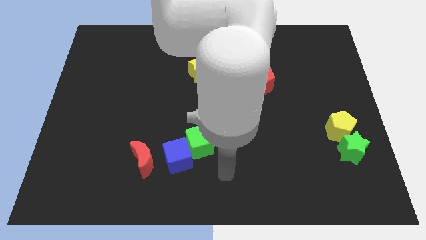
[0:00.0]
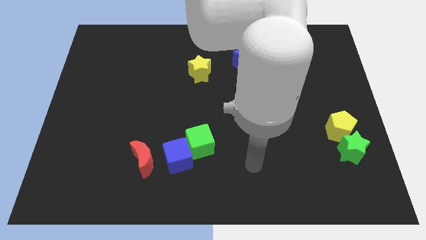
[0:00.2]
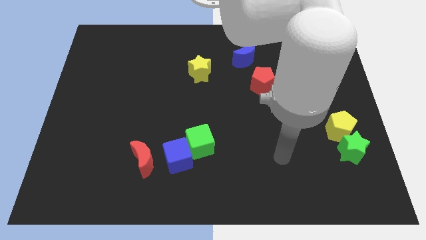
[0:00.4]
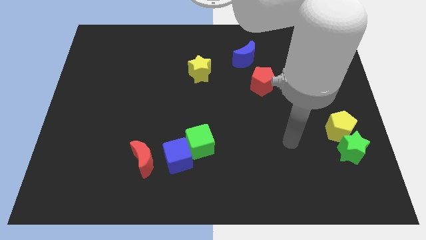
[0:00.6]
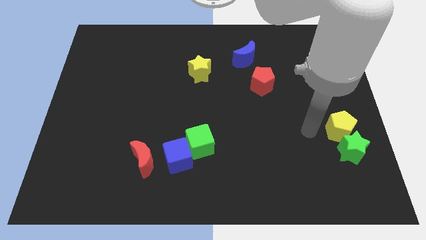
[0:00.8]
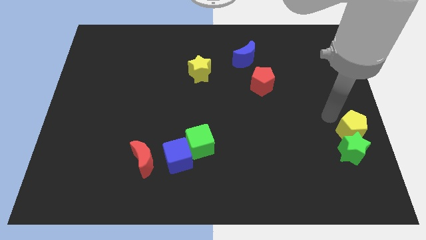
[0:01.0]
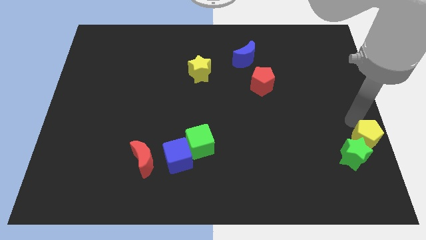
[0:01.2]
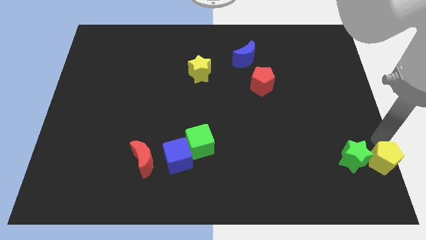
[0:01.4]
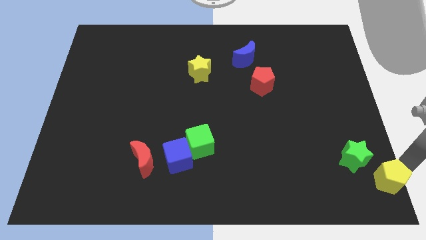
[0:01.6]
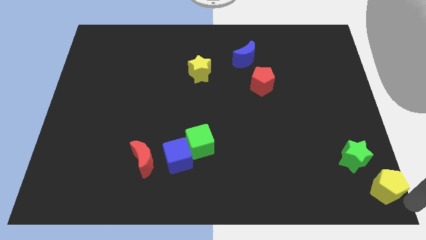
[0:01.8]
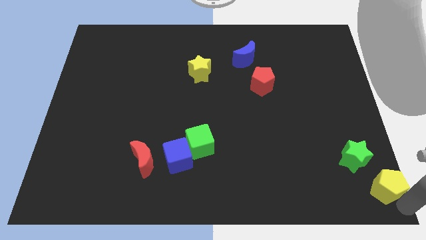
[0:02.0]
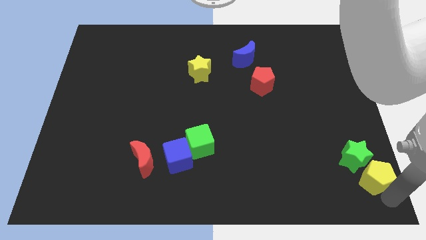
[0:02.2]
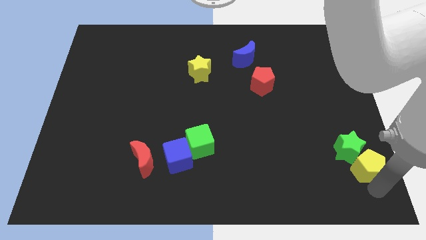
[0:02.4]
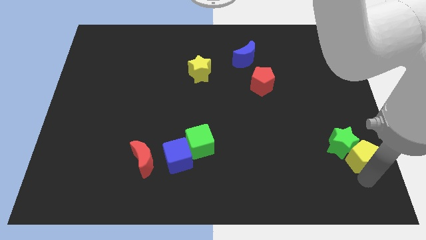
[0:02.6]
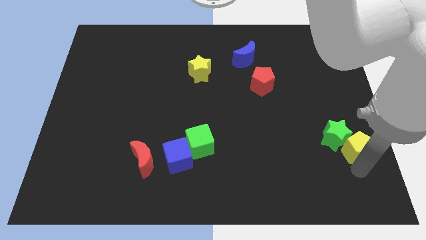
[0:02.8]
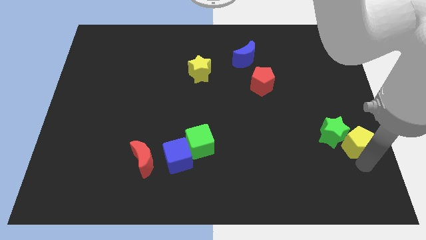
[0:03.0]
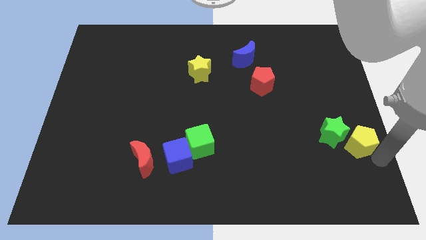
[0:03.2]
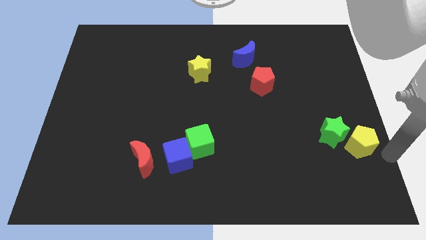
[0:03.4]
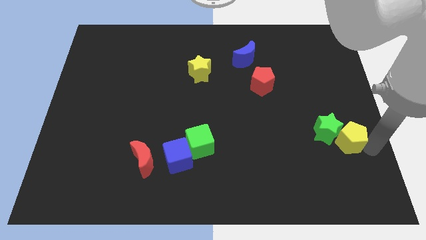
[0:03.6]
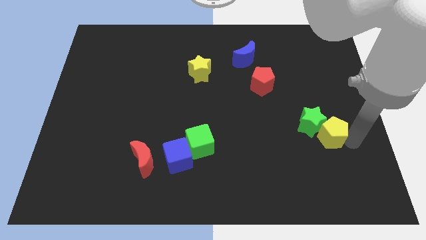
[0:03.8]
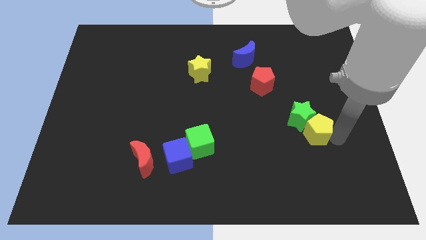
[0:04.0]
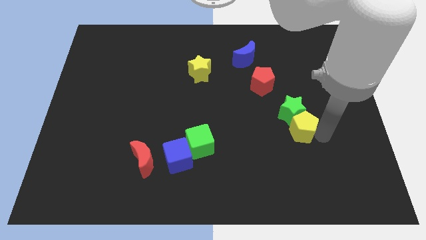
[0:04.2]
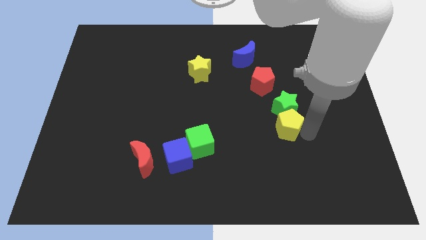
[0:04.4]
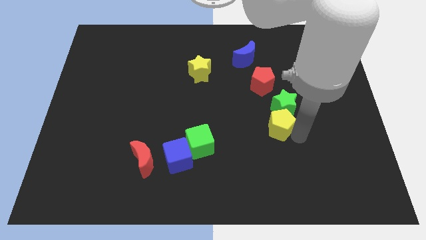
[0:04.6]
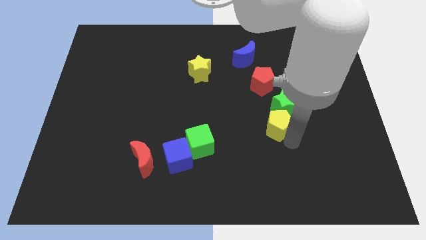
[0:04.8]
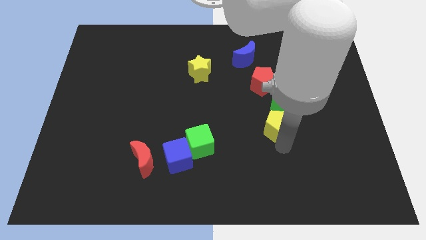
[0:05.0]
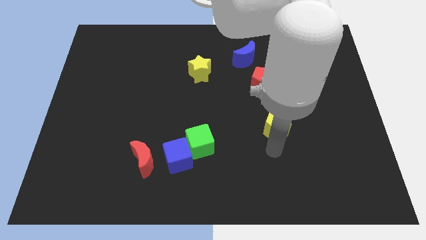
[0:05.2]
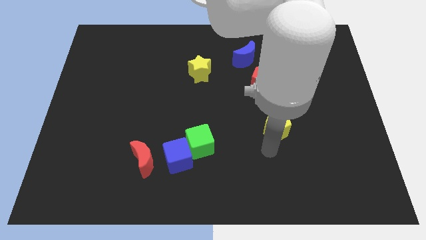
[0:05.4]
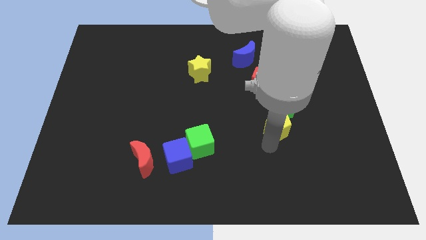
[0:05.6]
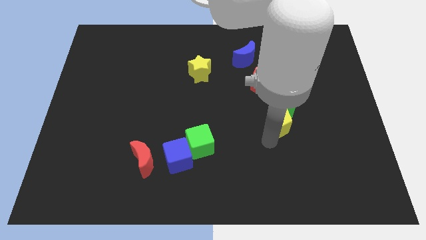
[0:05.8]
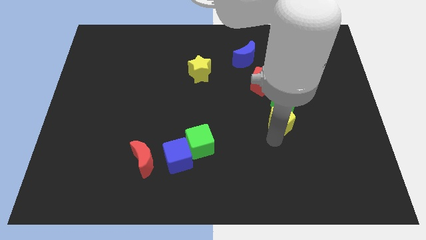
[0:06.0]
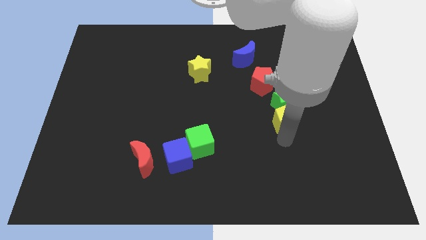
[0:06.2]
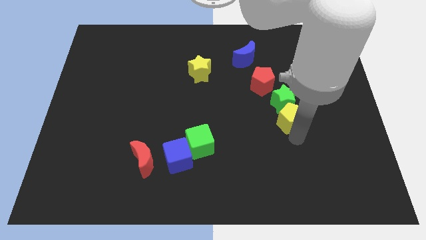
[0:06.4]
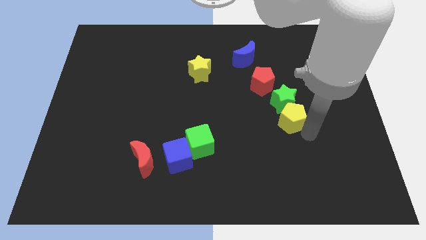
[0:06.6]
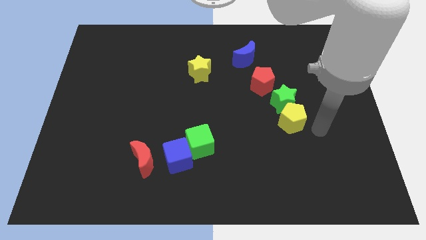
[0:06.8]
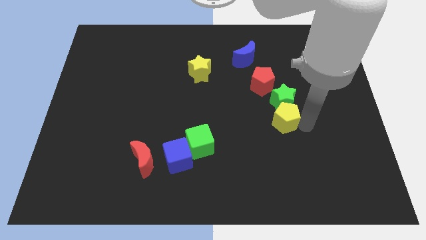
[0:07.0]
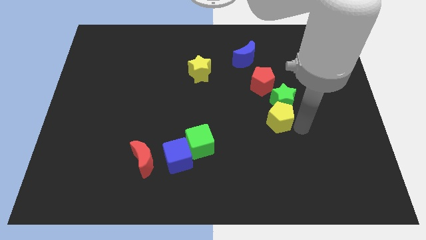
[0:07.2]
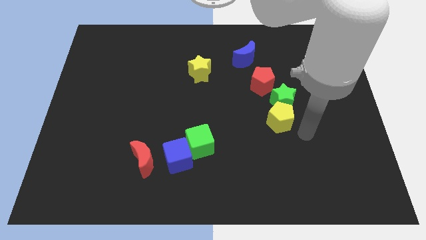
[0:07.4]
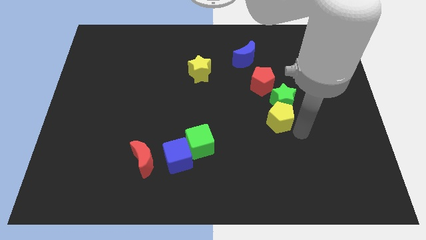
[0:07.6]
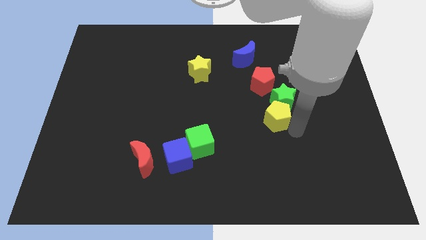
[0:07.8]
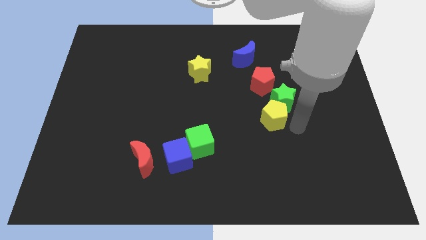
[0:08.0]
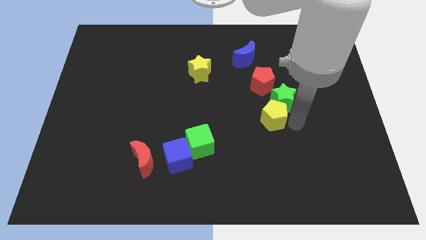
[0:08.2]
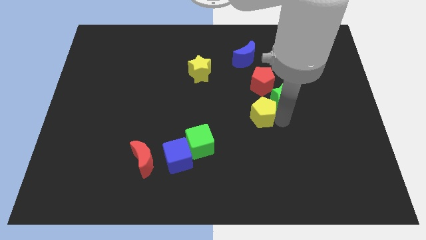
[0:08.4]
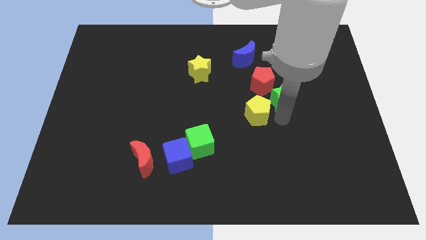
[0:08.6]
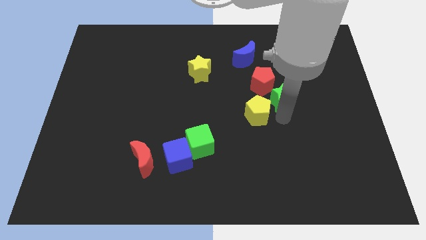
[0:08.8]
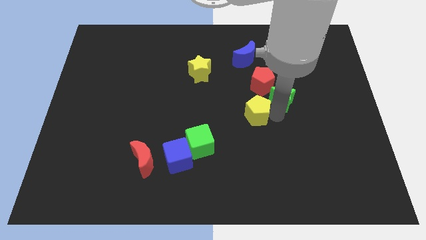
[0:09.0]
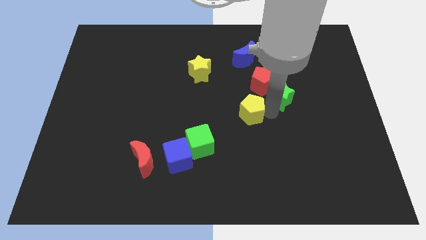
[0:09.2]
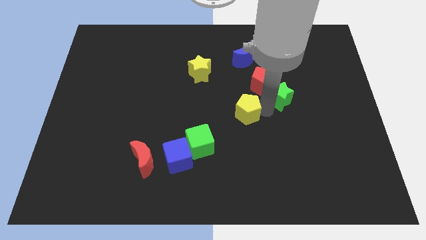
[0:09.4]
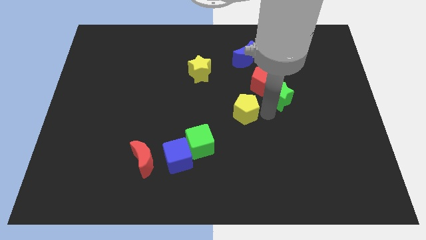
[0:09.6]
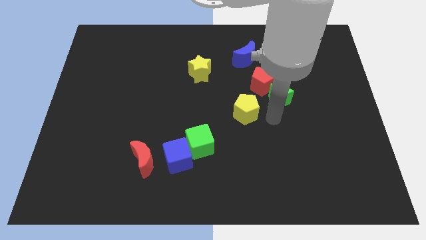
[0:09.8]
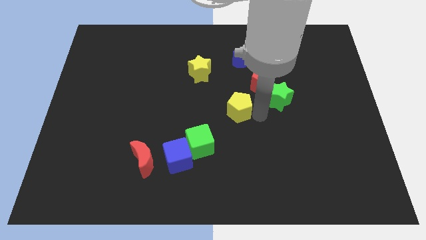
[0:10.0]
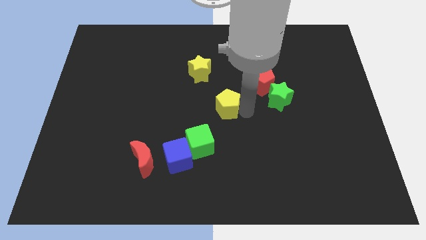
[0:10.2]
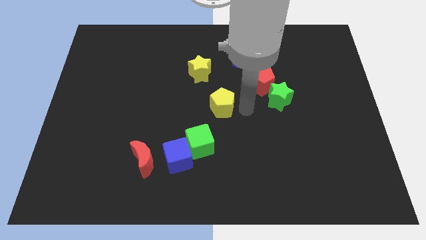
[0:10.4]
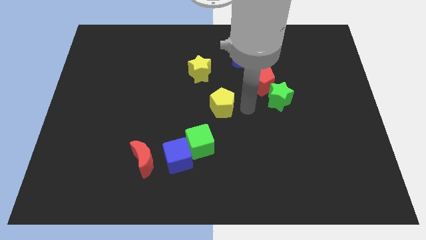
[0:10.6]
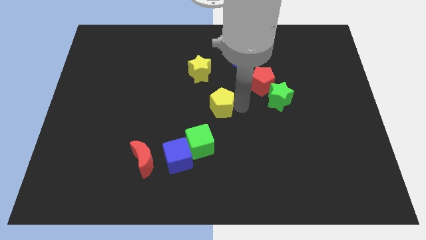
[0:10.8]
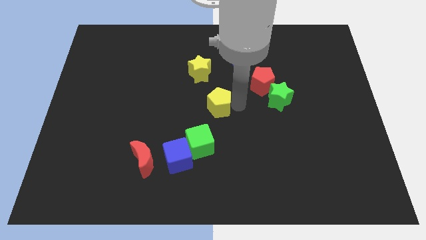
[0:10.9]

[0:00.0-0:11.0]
move the yellow pentagon to the bottom side of the yellow star

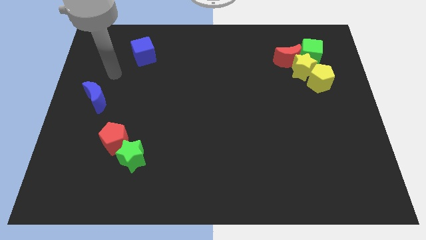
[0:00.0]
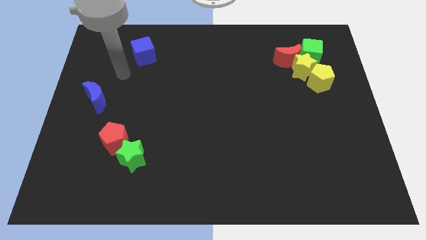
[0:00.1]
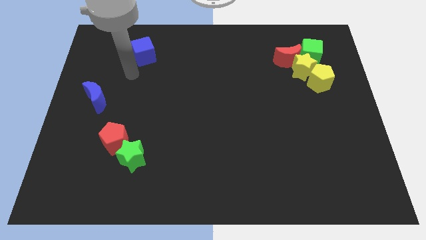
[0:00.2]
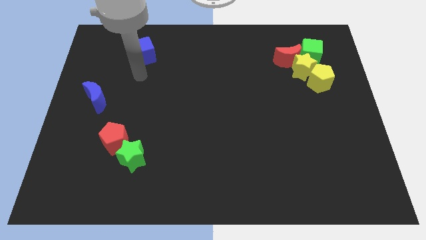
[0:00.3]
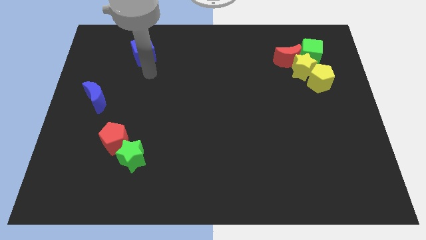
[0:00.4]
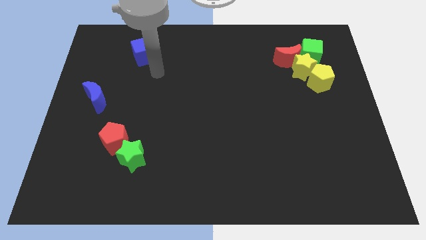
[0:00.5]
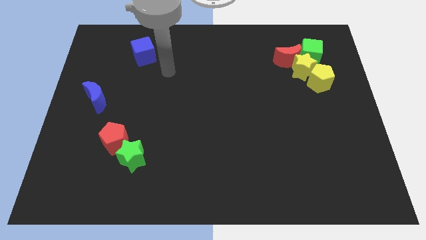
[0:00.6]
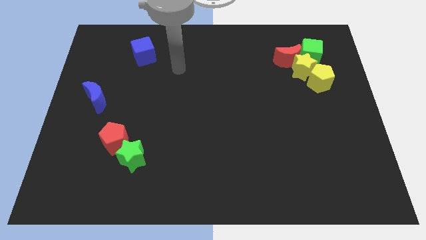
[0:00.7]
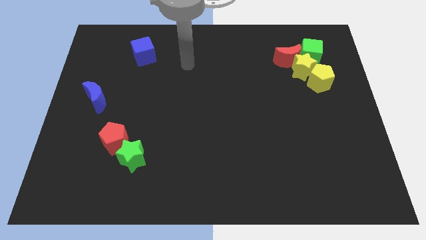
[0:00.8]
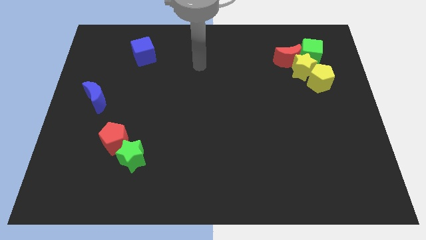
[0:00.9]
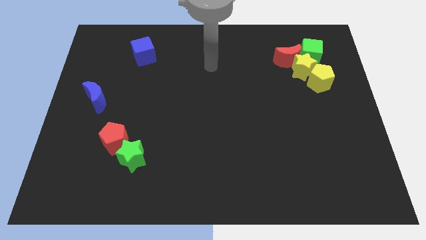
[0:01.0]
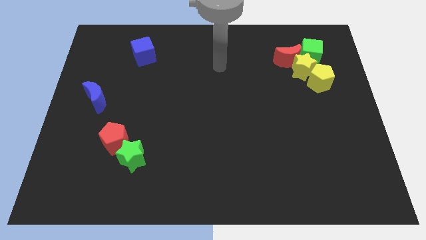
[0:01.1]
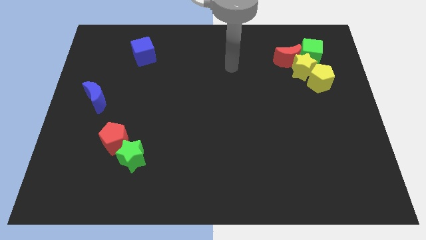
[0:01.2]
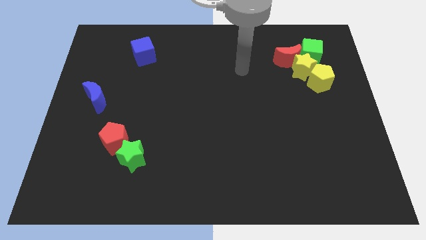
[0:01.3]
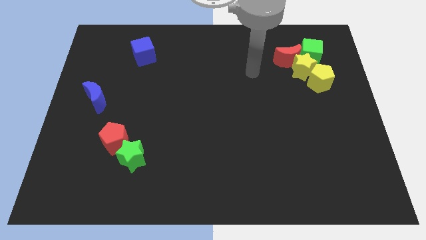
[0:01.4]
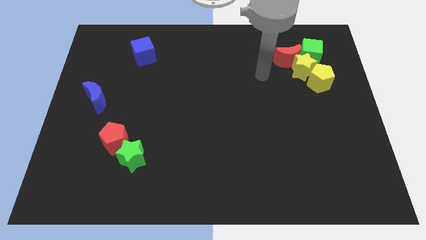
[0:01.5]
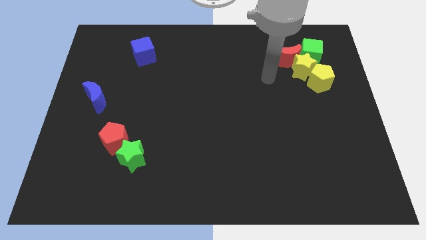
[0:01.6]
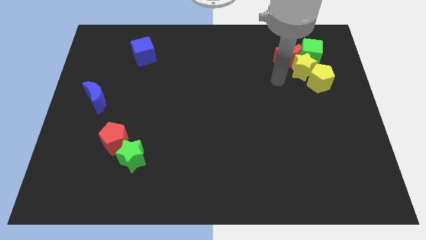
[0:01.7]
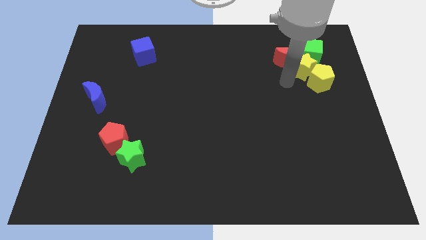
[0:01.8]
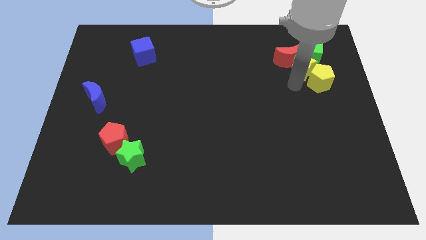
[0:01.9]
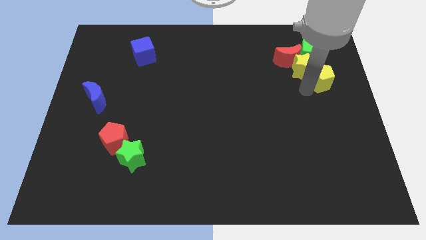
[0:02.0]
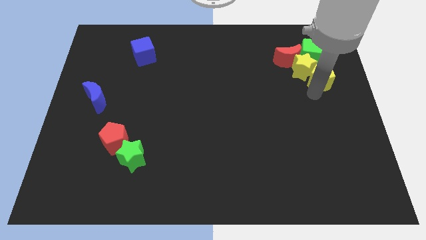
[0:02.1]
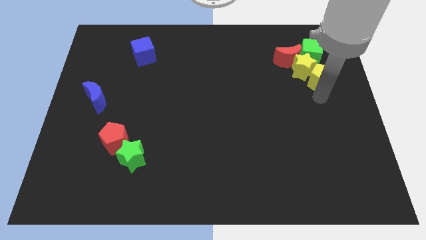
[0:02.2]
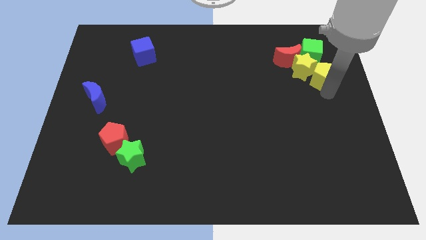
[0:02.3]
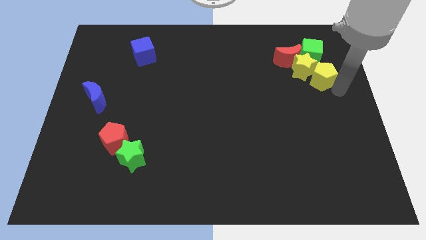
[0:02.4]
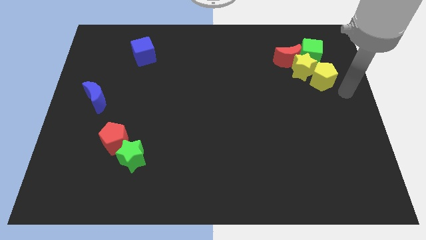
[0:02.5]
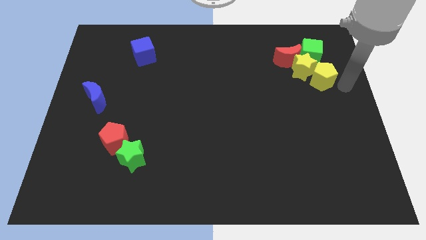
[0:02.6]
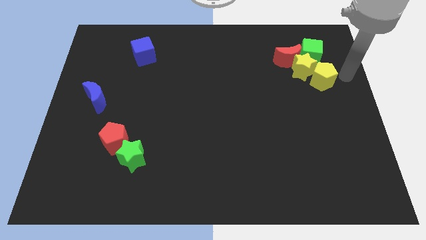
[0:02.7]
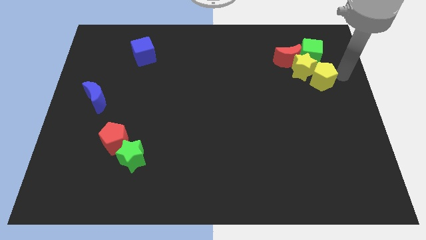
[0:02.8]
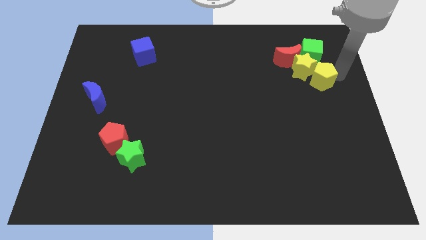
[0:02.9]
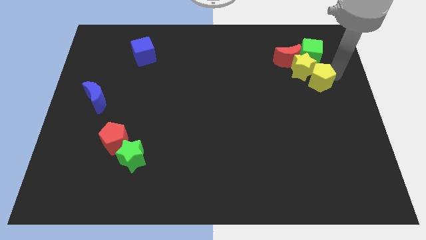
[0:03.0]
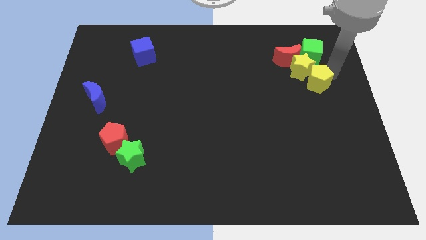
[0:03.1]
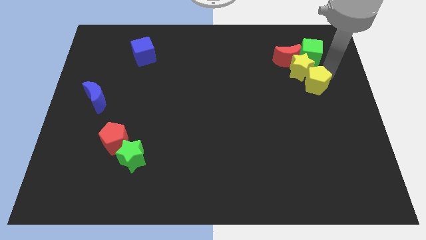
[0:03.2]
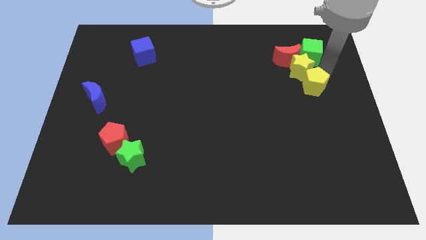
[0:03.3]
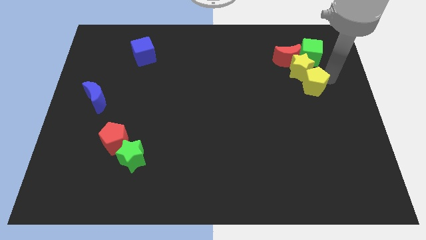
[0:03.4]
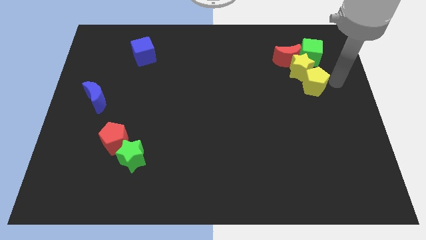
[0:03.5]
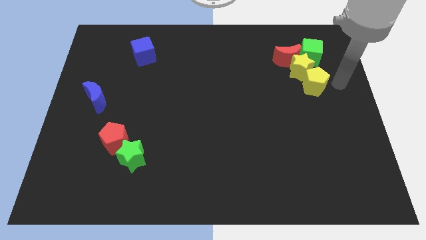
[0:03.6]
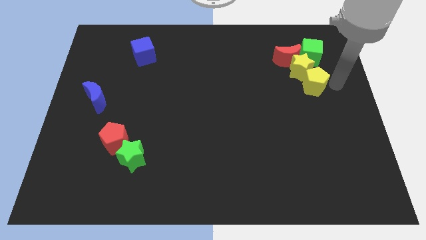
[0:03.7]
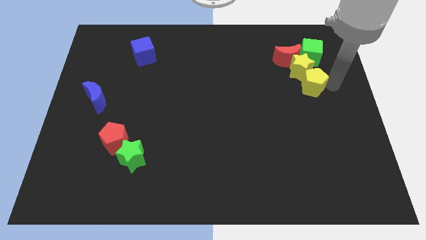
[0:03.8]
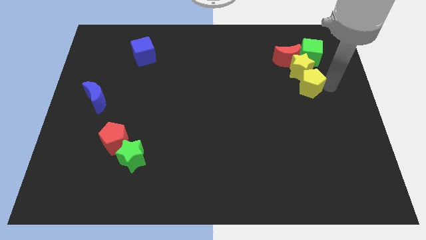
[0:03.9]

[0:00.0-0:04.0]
move the yellow pentagon to the bottom left side of the yellow star
